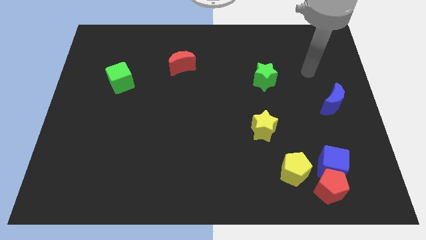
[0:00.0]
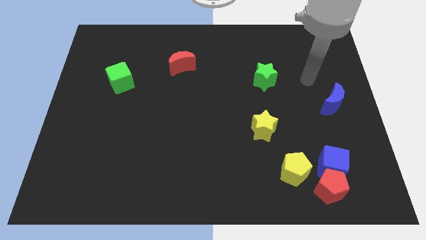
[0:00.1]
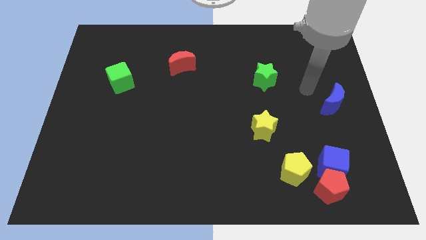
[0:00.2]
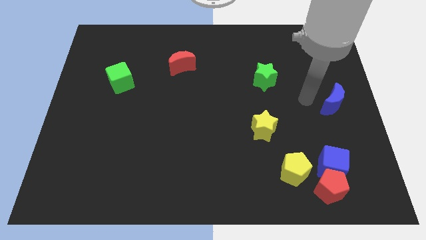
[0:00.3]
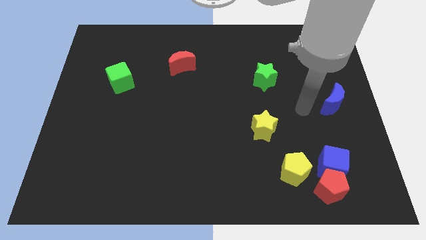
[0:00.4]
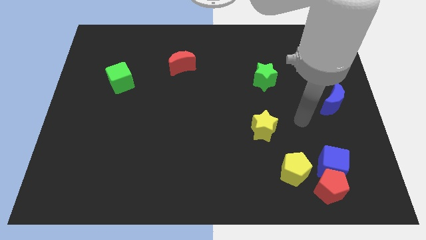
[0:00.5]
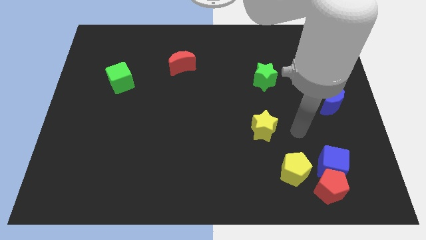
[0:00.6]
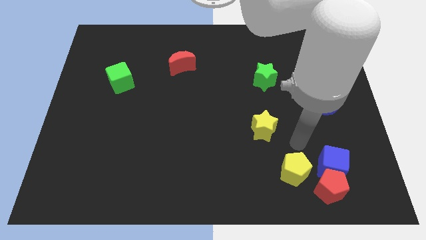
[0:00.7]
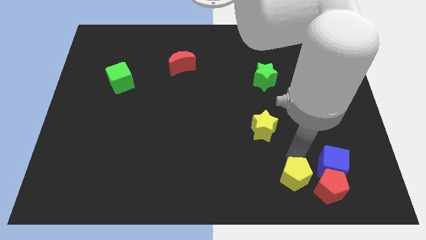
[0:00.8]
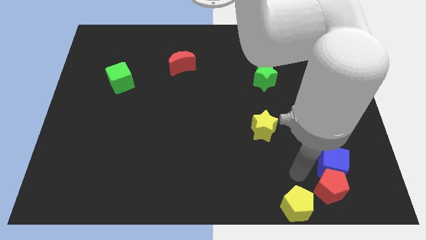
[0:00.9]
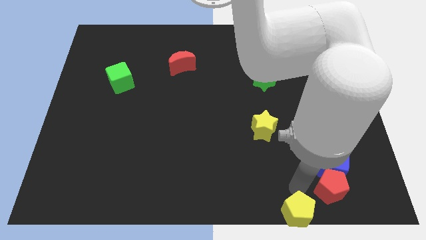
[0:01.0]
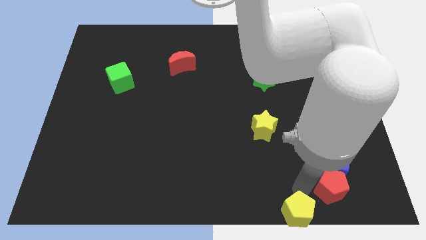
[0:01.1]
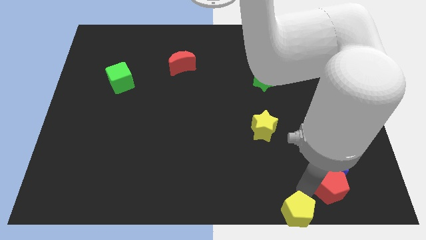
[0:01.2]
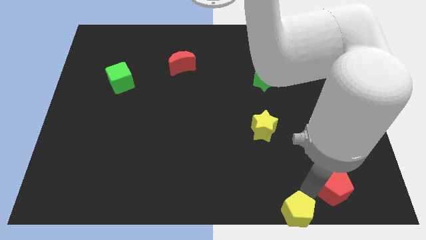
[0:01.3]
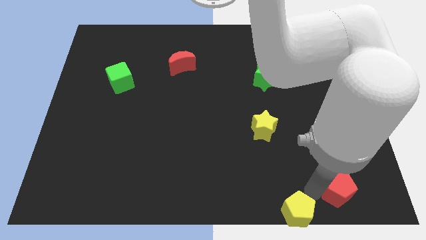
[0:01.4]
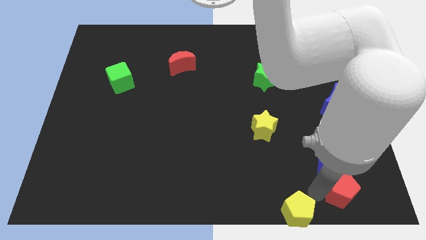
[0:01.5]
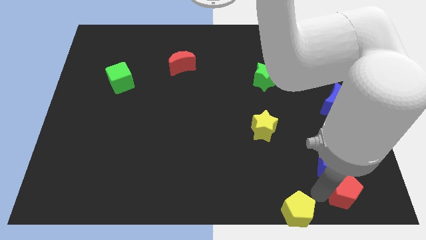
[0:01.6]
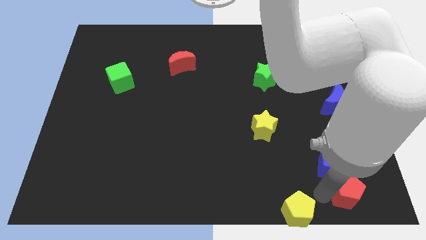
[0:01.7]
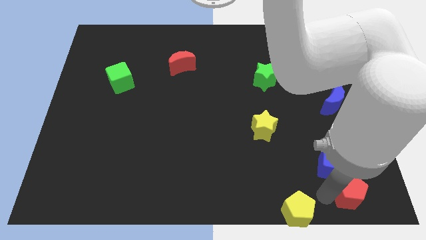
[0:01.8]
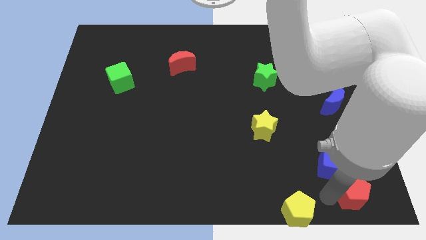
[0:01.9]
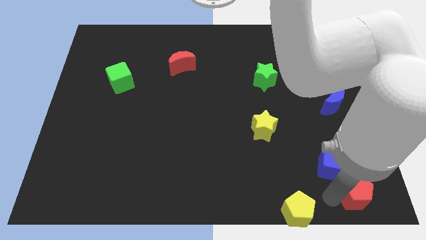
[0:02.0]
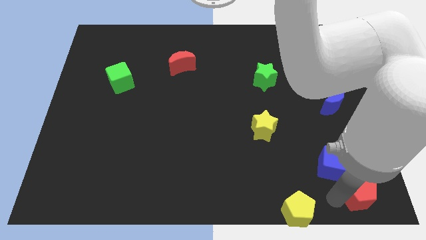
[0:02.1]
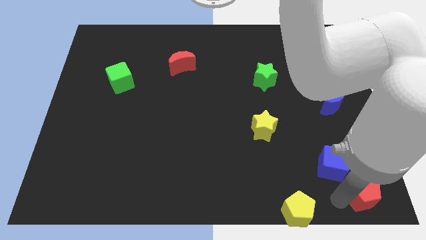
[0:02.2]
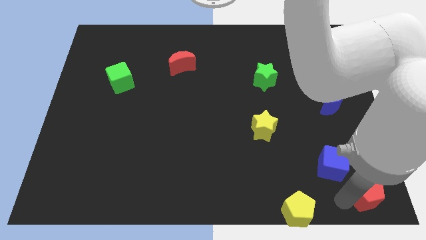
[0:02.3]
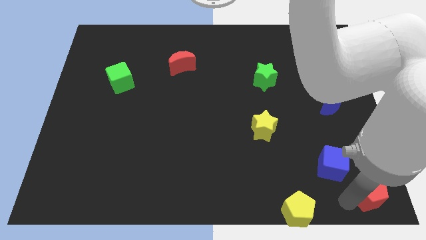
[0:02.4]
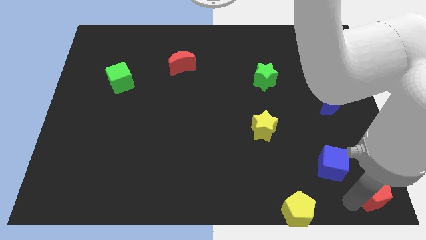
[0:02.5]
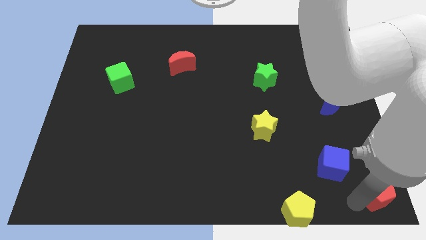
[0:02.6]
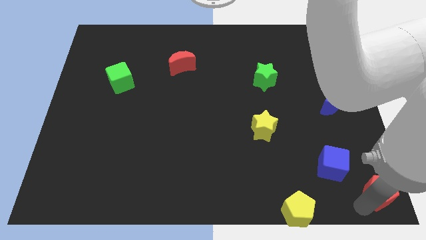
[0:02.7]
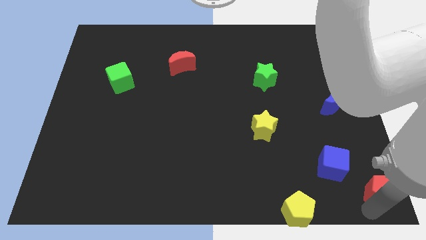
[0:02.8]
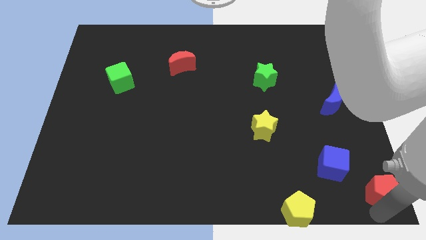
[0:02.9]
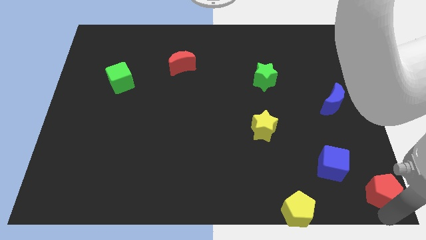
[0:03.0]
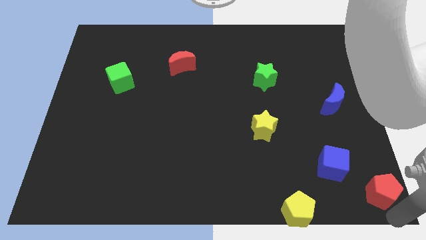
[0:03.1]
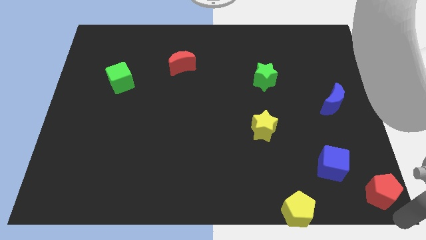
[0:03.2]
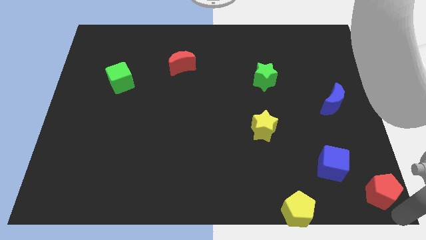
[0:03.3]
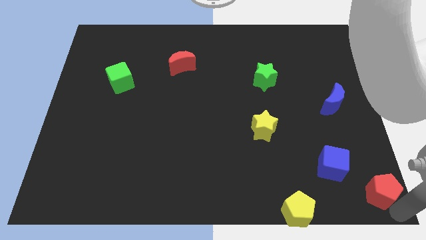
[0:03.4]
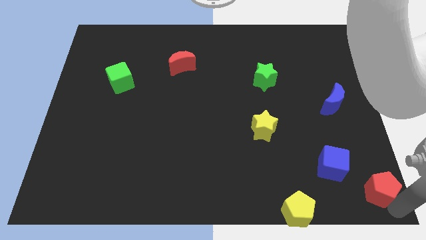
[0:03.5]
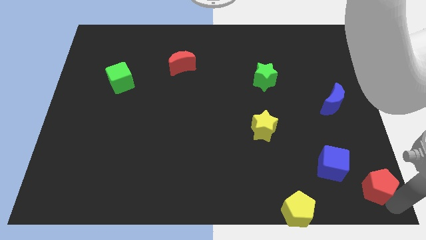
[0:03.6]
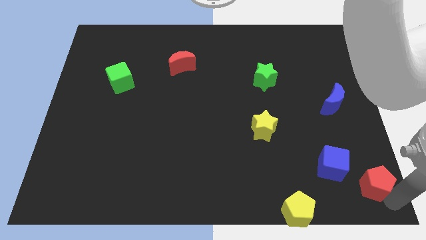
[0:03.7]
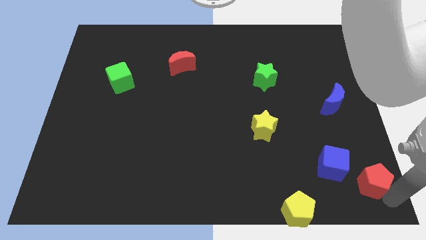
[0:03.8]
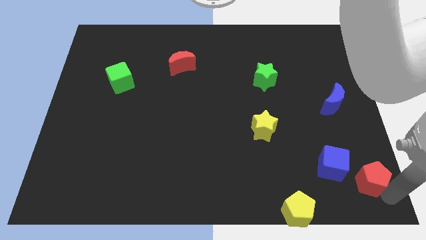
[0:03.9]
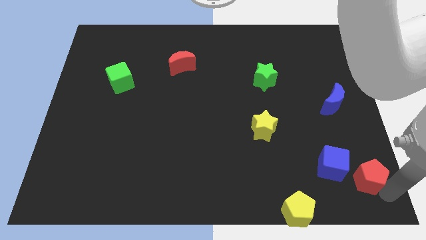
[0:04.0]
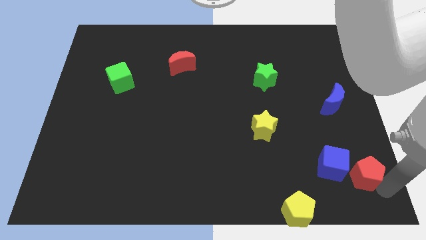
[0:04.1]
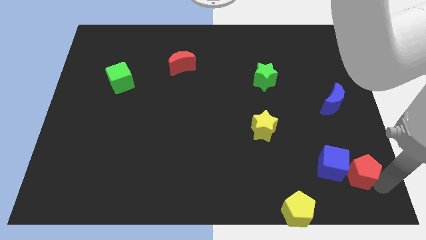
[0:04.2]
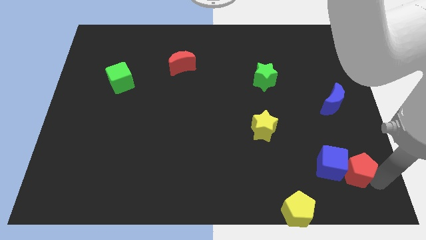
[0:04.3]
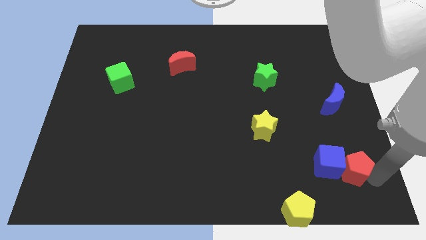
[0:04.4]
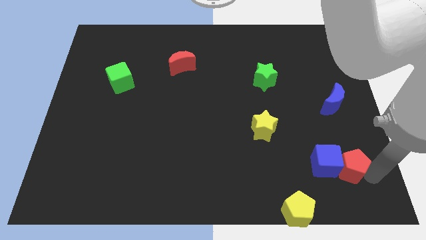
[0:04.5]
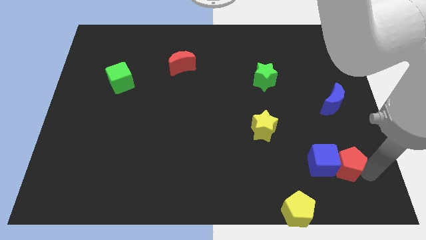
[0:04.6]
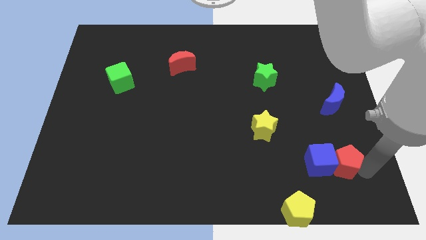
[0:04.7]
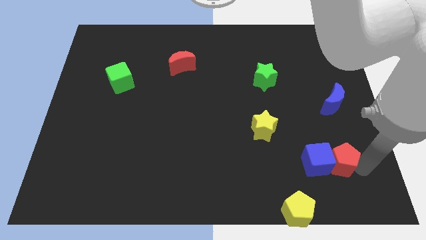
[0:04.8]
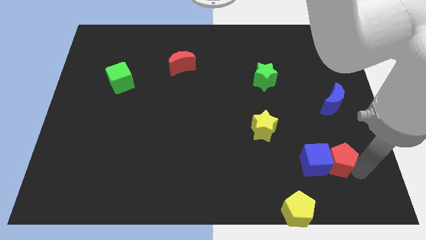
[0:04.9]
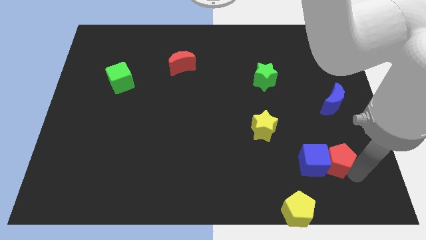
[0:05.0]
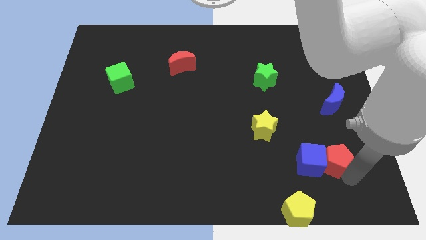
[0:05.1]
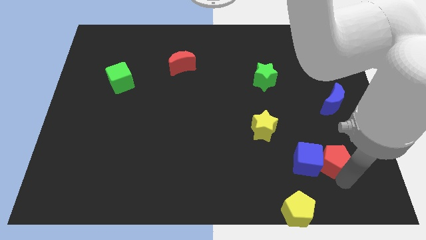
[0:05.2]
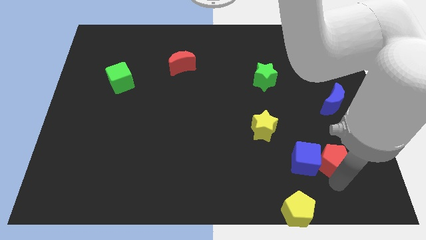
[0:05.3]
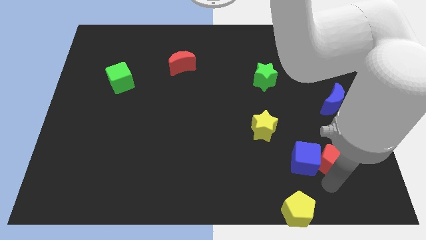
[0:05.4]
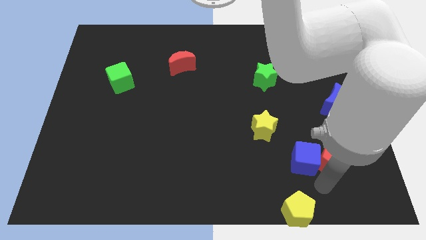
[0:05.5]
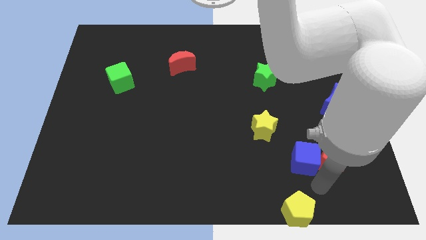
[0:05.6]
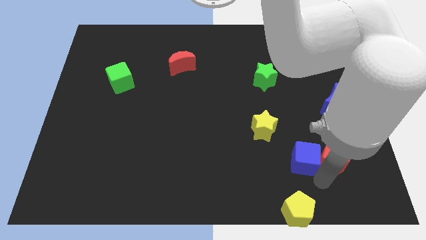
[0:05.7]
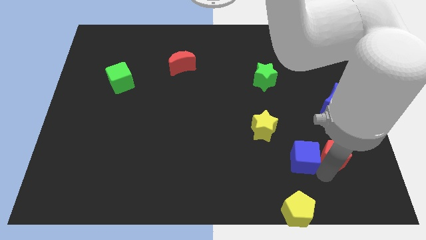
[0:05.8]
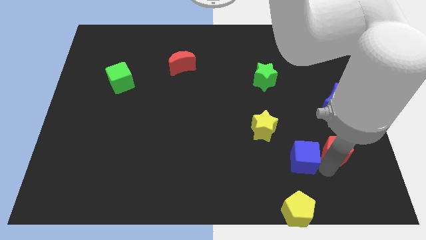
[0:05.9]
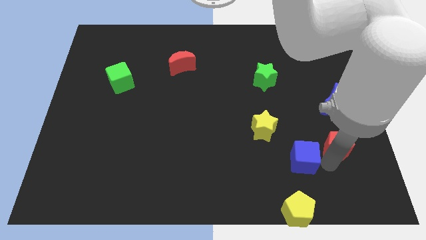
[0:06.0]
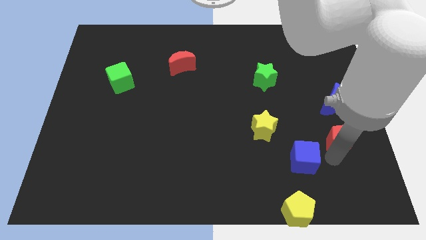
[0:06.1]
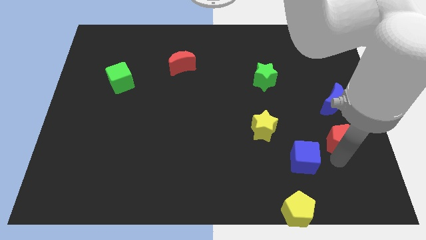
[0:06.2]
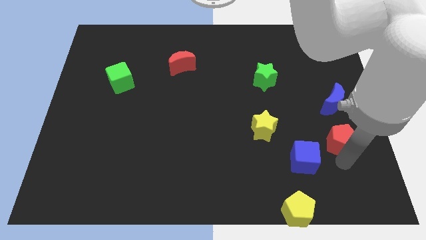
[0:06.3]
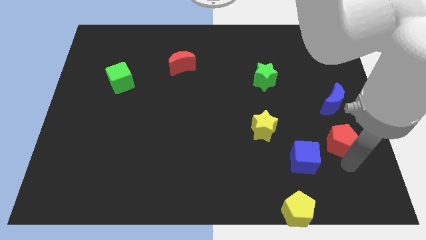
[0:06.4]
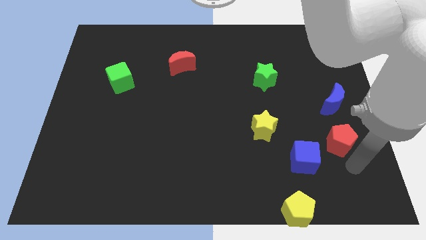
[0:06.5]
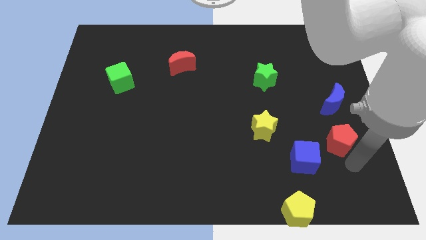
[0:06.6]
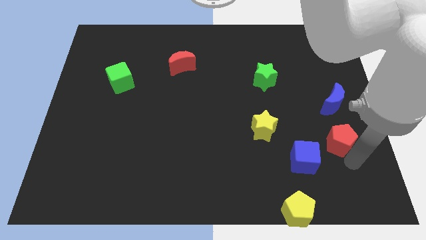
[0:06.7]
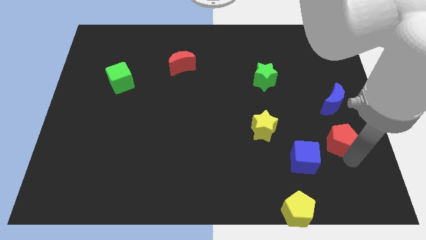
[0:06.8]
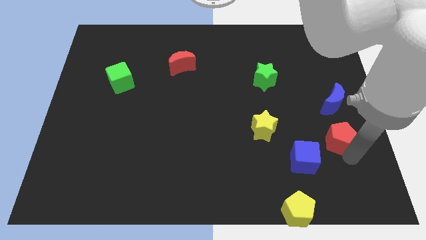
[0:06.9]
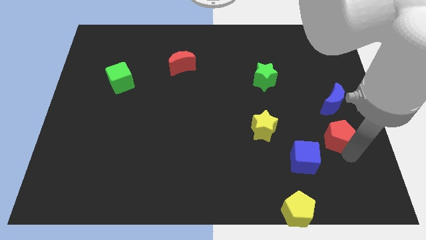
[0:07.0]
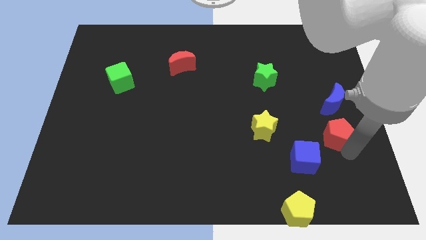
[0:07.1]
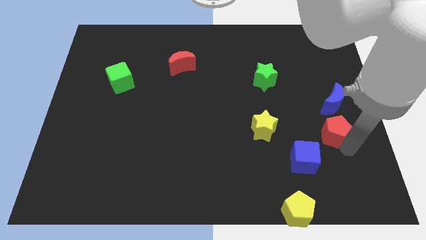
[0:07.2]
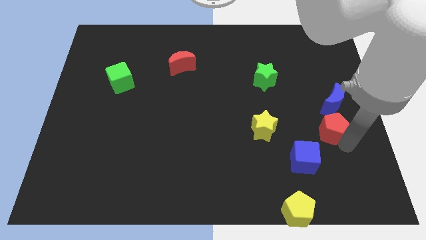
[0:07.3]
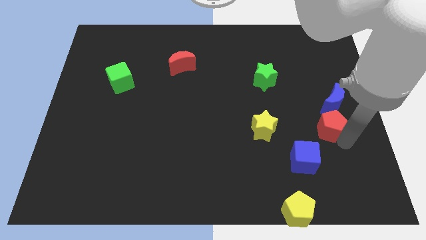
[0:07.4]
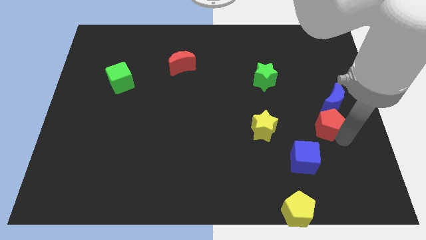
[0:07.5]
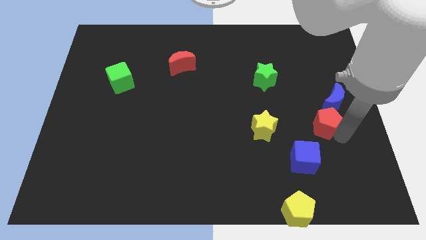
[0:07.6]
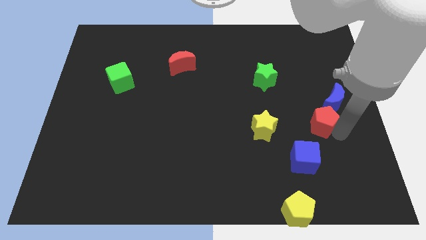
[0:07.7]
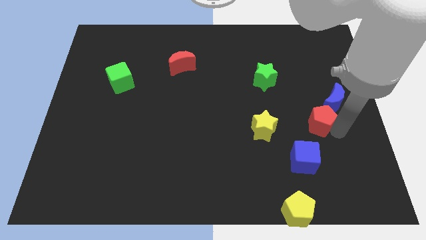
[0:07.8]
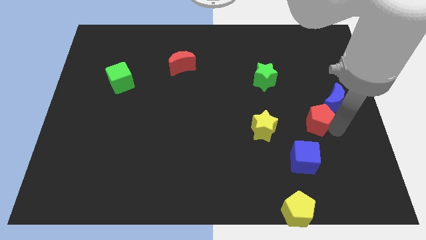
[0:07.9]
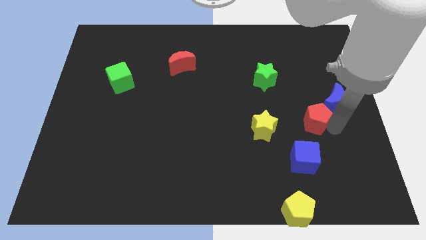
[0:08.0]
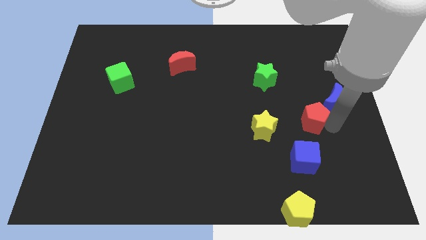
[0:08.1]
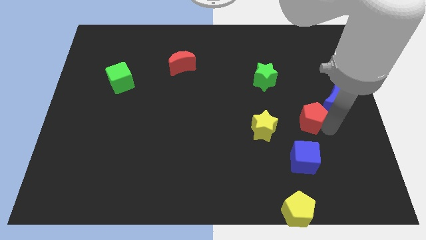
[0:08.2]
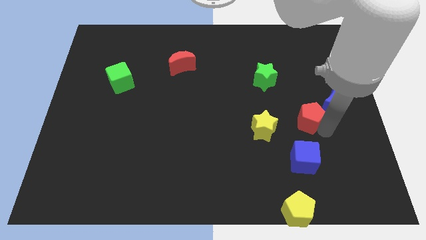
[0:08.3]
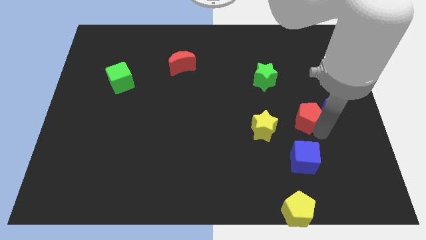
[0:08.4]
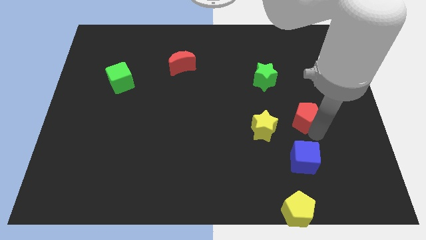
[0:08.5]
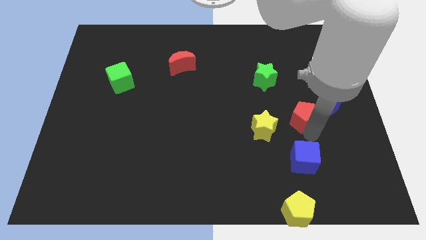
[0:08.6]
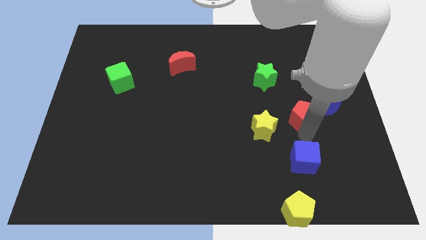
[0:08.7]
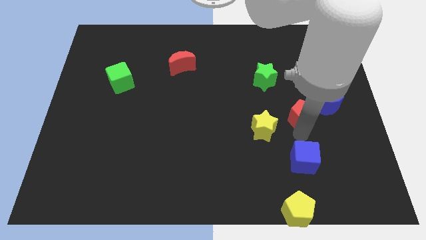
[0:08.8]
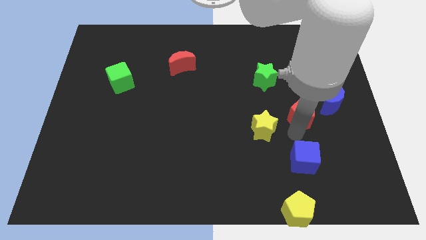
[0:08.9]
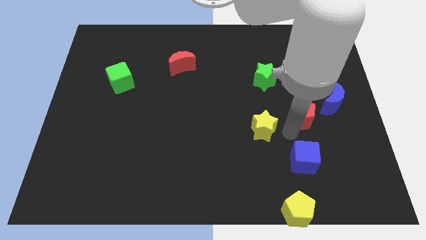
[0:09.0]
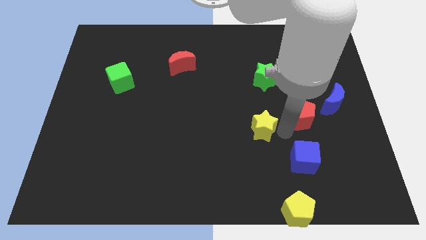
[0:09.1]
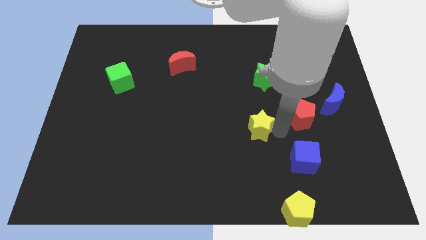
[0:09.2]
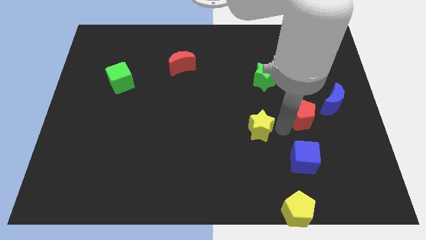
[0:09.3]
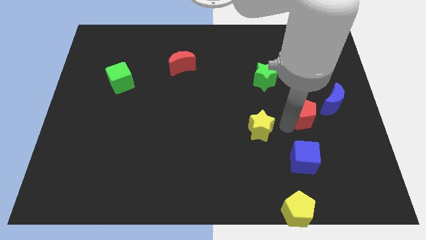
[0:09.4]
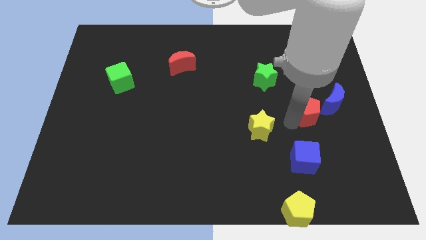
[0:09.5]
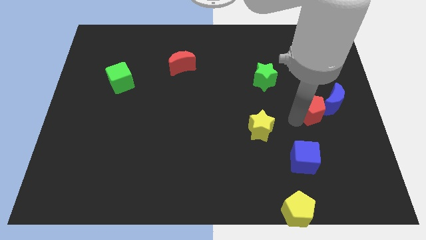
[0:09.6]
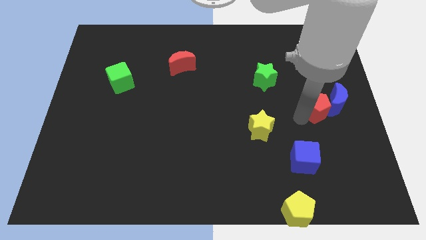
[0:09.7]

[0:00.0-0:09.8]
push the red pentagon up
